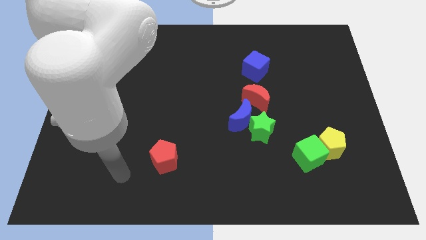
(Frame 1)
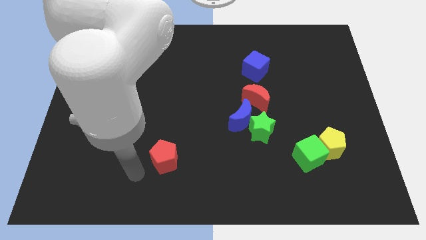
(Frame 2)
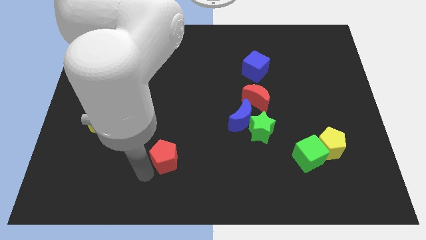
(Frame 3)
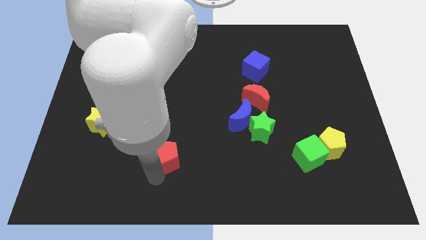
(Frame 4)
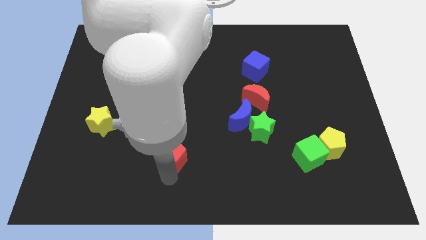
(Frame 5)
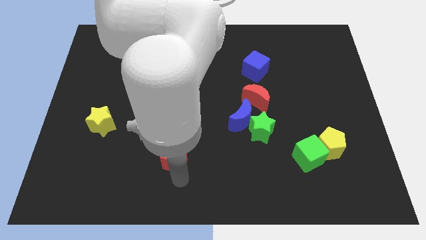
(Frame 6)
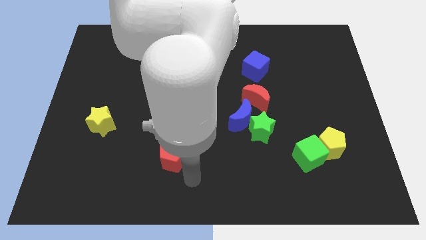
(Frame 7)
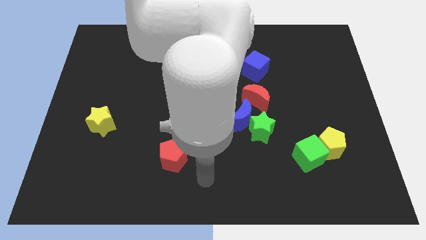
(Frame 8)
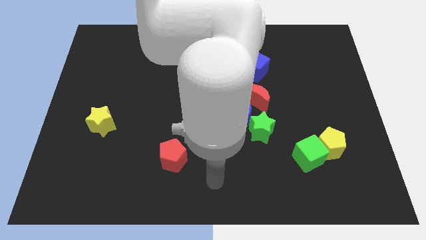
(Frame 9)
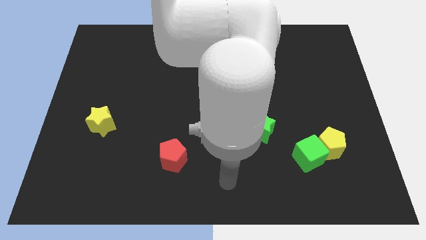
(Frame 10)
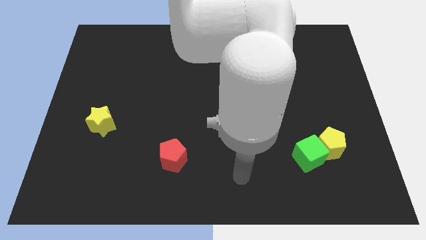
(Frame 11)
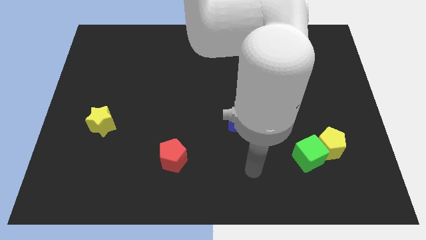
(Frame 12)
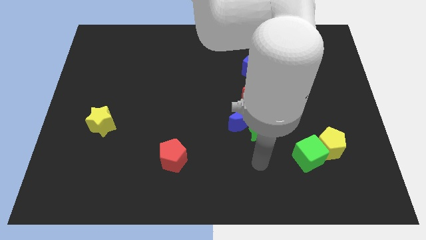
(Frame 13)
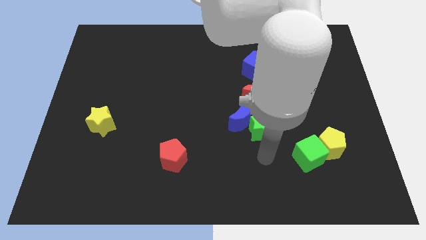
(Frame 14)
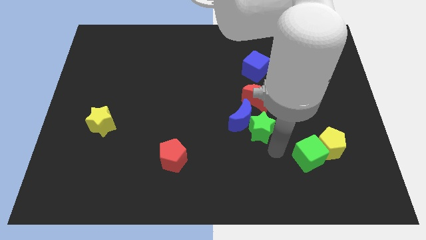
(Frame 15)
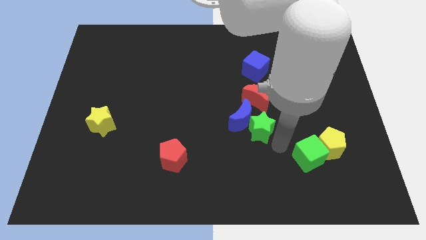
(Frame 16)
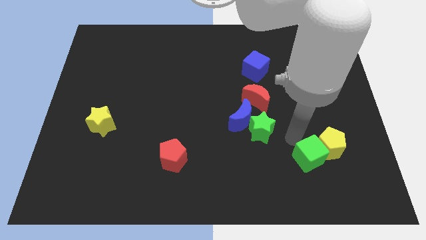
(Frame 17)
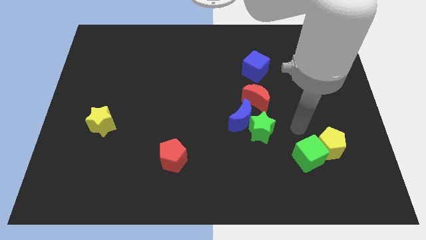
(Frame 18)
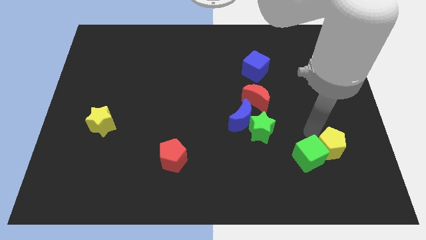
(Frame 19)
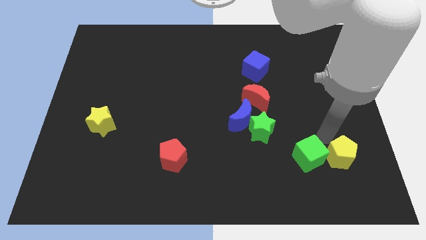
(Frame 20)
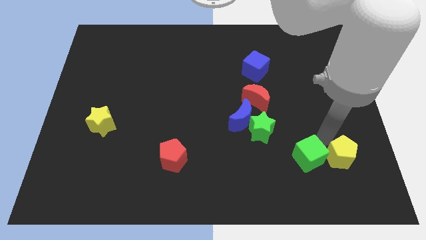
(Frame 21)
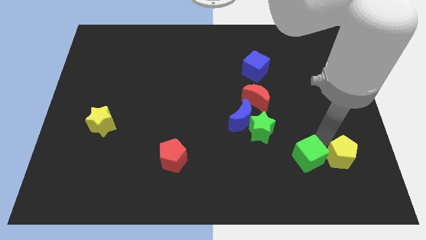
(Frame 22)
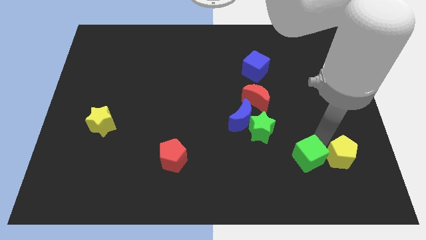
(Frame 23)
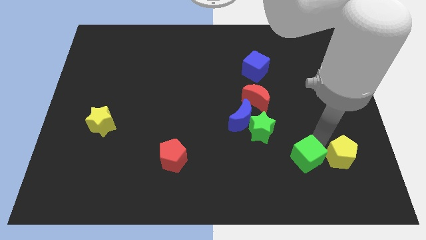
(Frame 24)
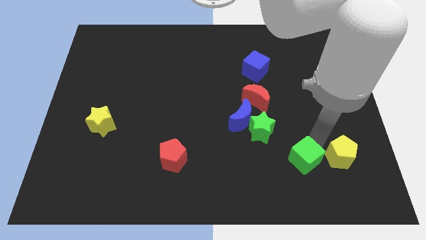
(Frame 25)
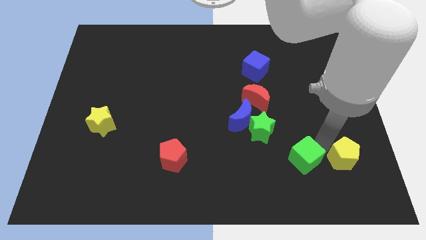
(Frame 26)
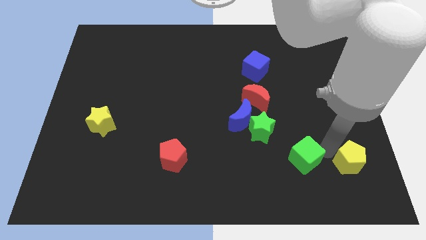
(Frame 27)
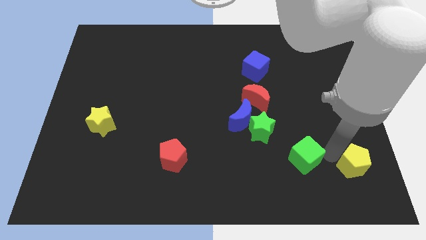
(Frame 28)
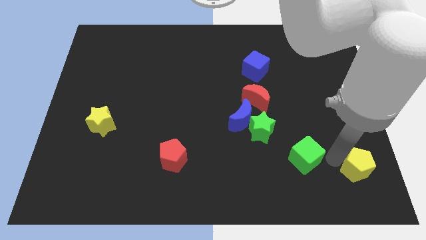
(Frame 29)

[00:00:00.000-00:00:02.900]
pull the green cube apart from the yellow pentagon

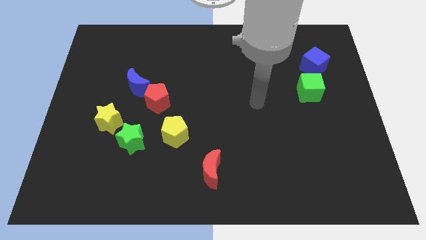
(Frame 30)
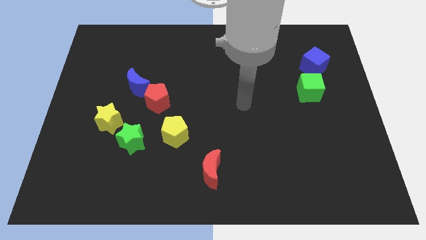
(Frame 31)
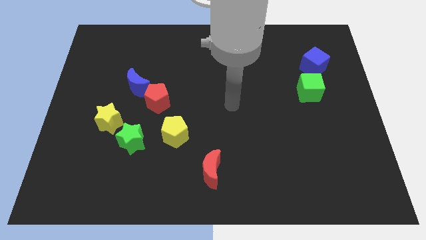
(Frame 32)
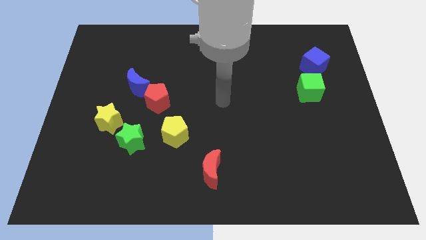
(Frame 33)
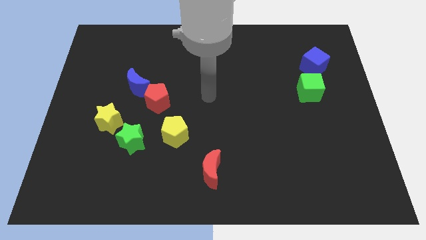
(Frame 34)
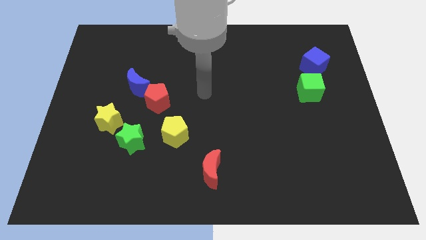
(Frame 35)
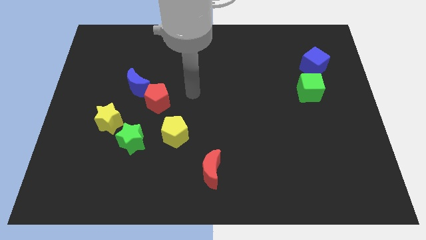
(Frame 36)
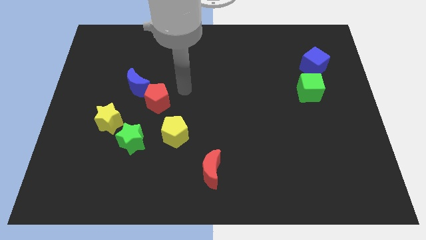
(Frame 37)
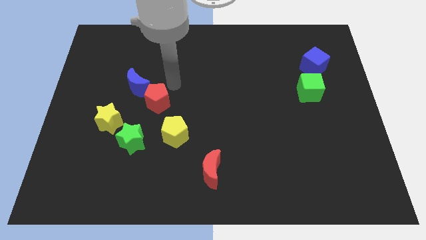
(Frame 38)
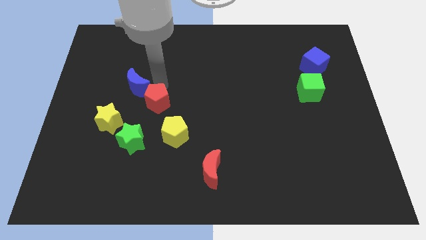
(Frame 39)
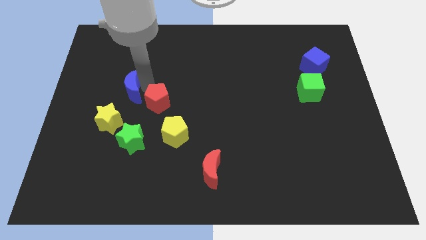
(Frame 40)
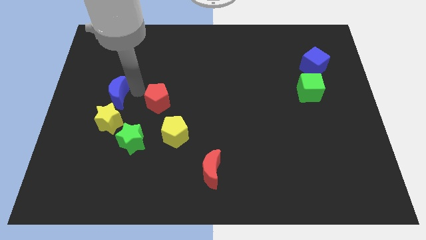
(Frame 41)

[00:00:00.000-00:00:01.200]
pull the red pentagon apart from the blue moon

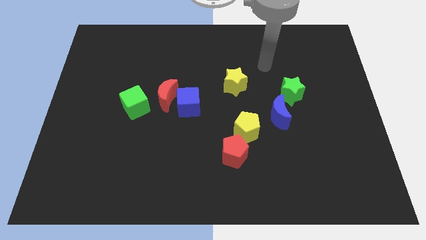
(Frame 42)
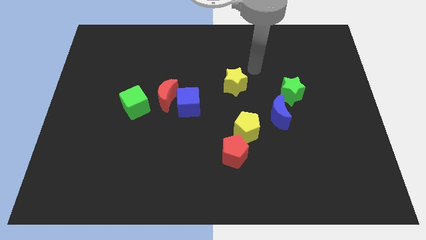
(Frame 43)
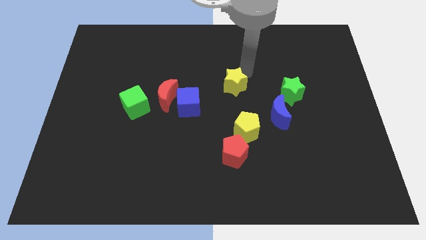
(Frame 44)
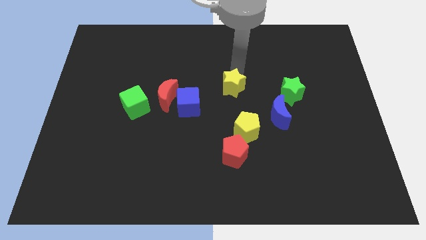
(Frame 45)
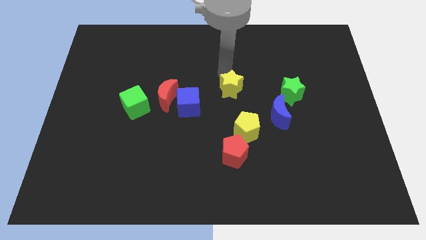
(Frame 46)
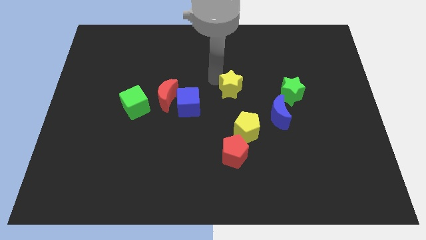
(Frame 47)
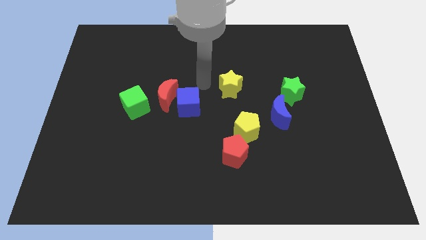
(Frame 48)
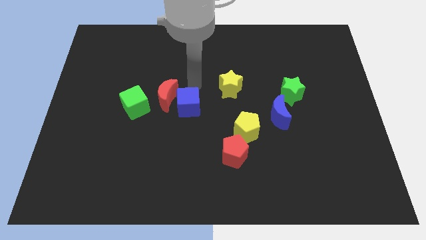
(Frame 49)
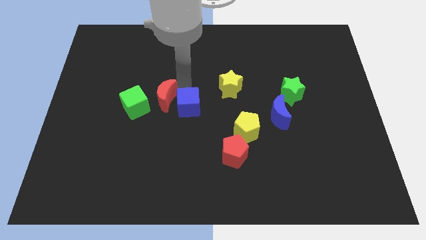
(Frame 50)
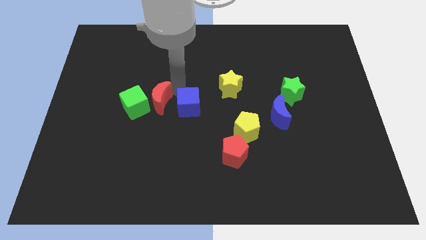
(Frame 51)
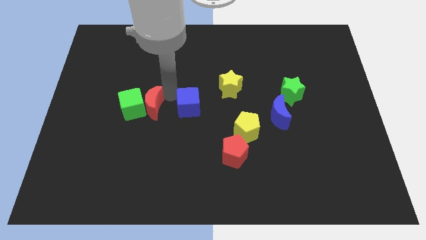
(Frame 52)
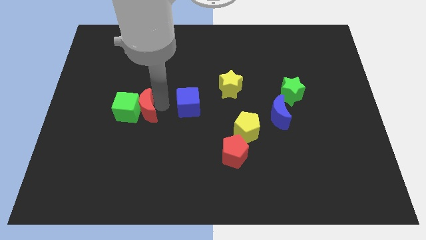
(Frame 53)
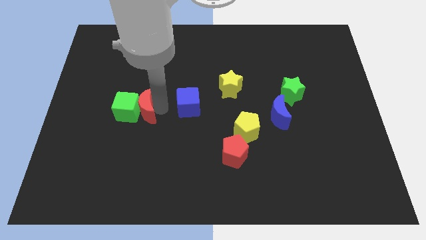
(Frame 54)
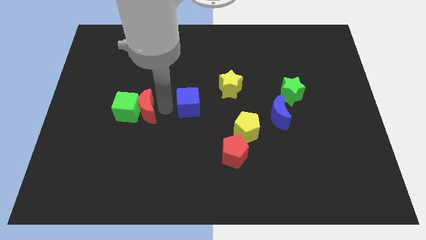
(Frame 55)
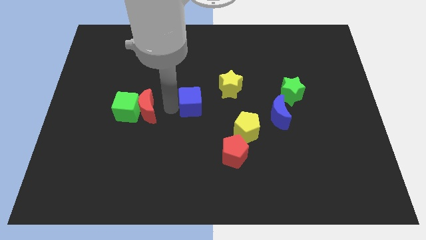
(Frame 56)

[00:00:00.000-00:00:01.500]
separate the blue cube from the red moon

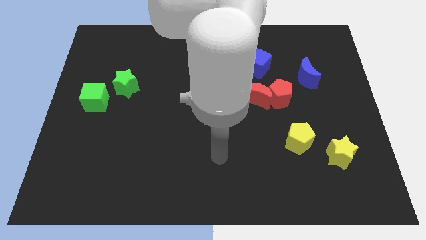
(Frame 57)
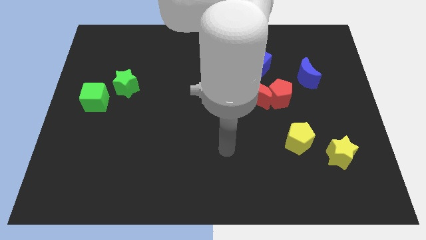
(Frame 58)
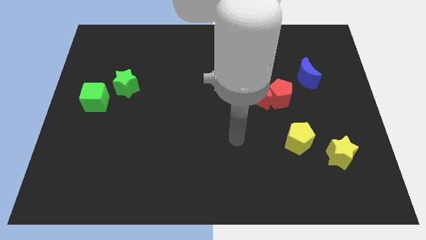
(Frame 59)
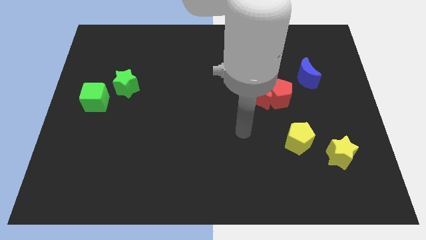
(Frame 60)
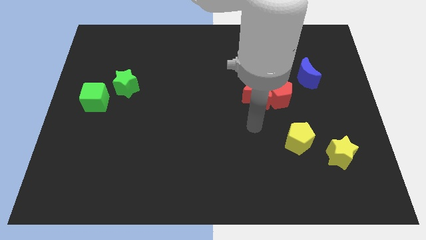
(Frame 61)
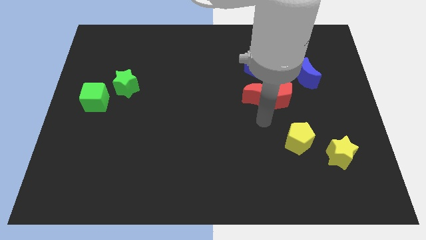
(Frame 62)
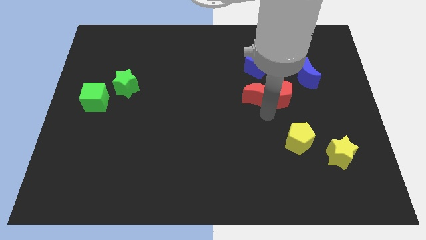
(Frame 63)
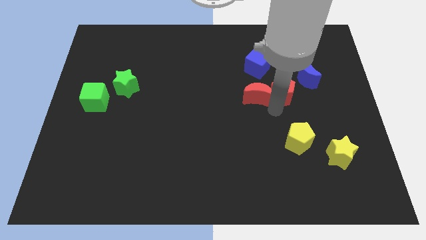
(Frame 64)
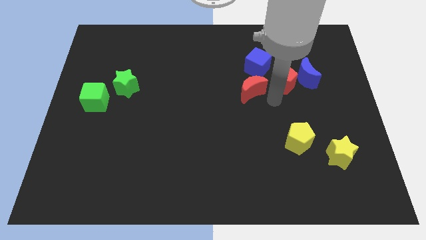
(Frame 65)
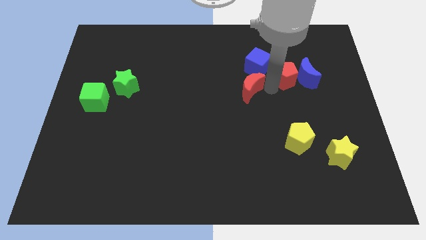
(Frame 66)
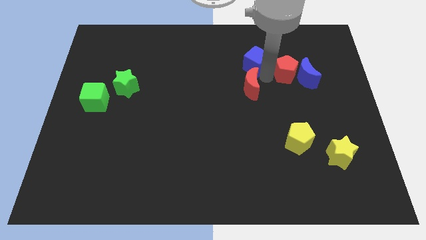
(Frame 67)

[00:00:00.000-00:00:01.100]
separate the red moon from the red pentagon

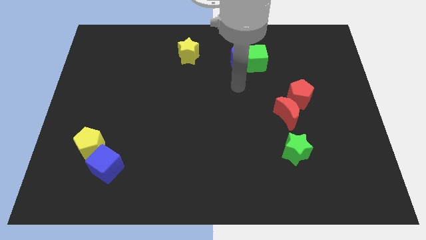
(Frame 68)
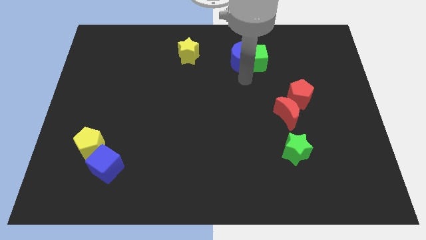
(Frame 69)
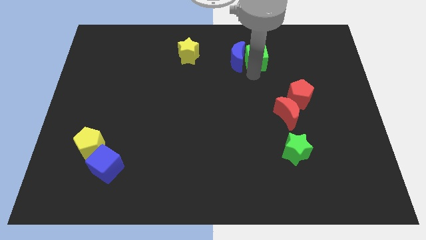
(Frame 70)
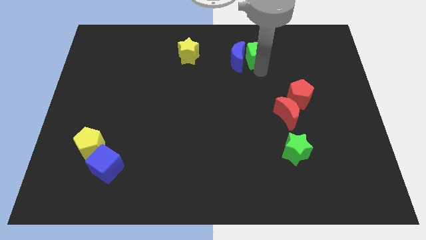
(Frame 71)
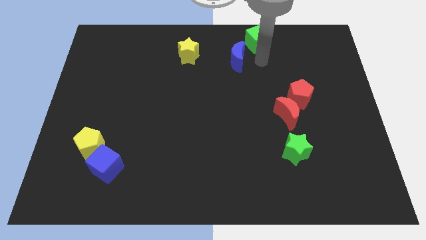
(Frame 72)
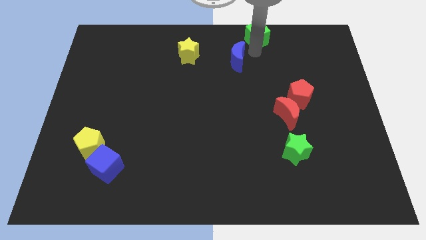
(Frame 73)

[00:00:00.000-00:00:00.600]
move the blue moon away from the green cube

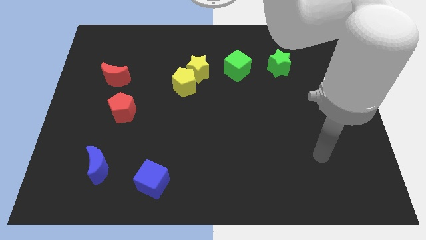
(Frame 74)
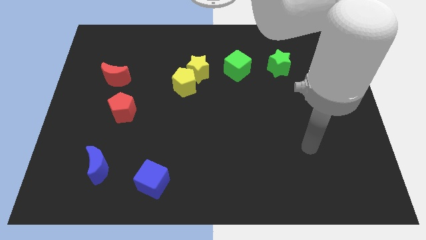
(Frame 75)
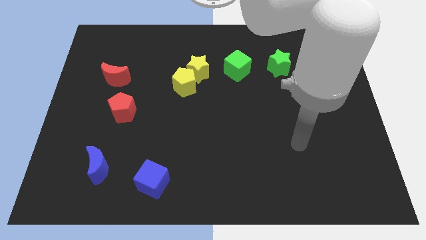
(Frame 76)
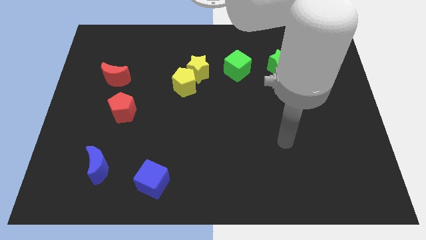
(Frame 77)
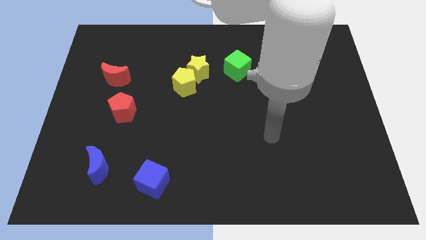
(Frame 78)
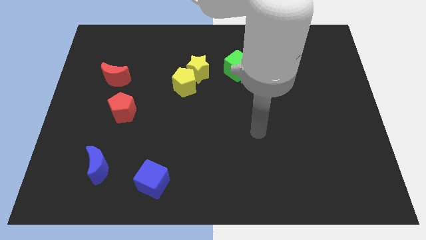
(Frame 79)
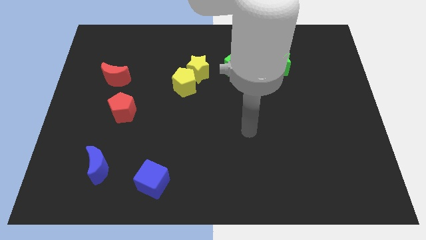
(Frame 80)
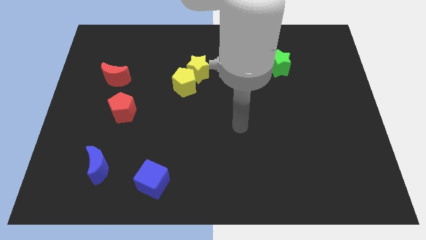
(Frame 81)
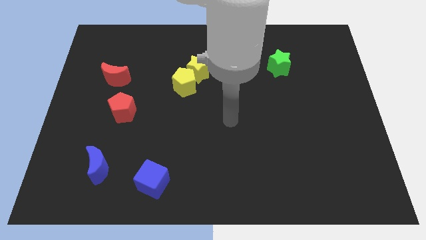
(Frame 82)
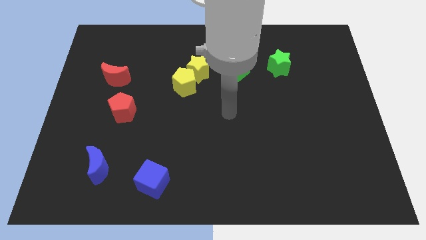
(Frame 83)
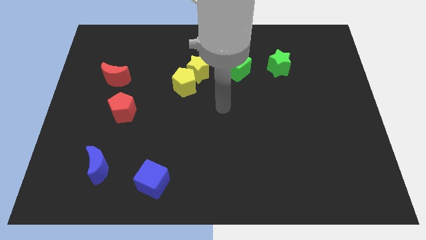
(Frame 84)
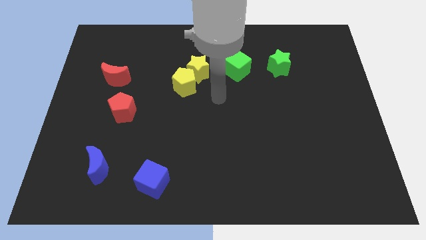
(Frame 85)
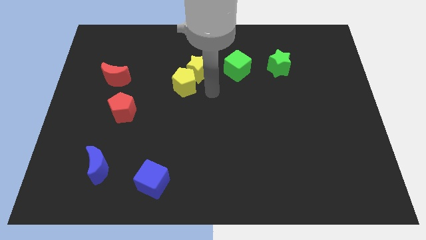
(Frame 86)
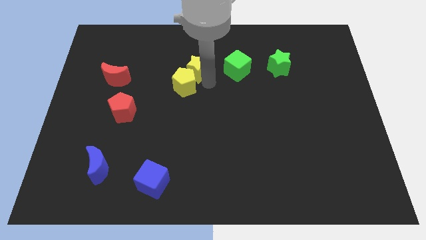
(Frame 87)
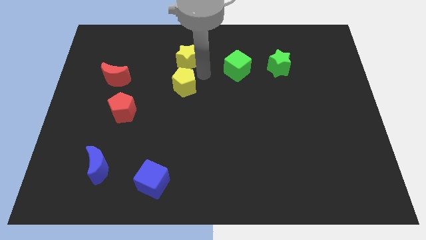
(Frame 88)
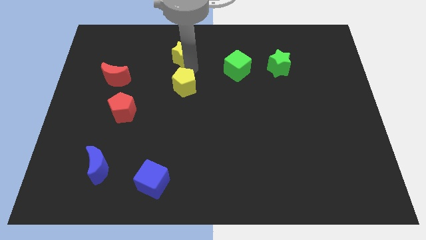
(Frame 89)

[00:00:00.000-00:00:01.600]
move the yellow pentagon away from the yellow star

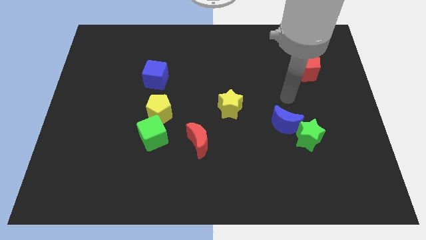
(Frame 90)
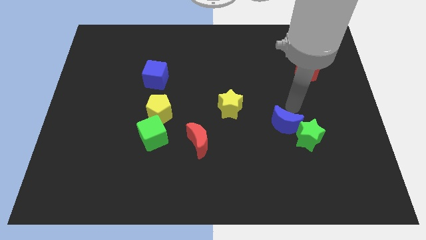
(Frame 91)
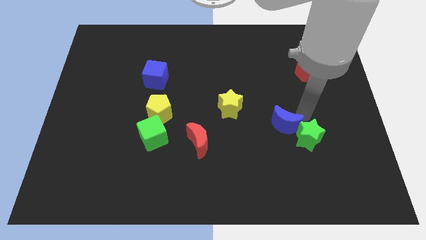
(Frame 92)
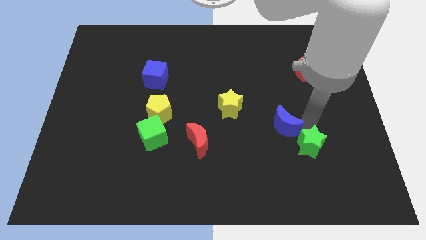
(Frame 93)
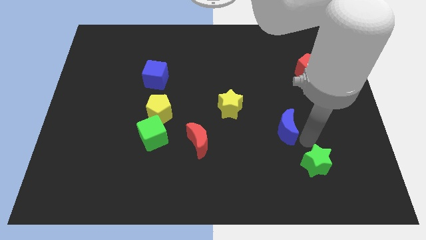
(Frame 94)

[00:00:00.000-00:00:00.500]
move the blue moon away from the green star
